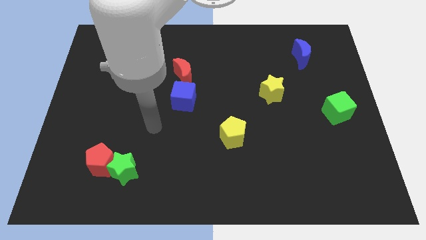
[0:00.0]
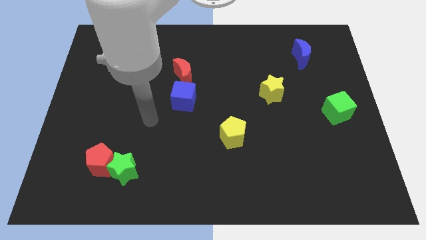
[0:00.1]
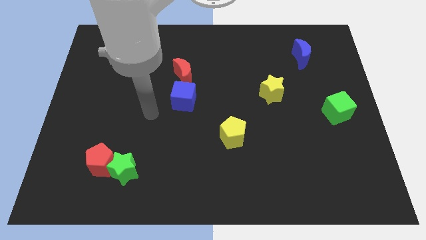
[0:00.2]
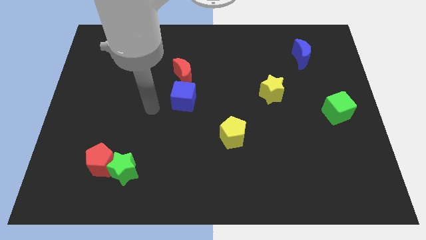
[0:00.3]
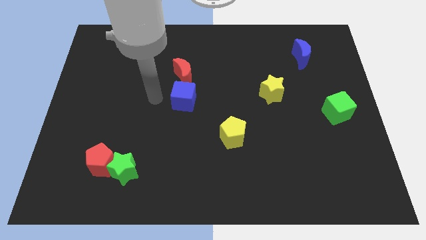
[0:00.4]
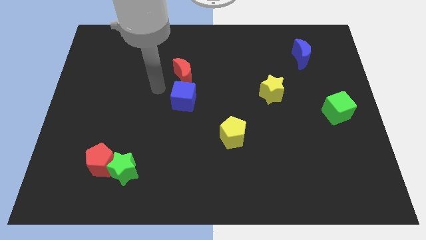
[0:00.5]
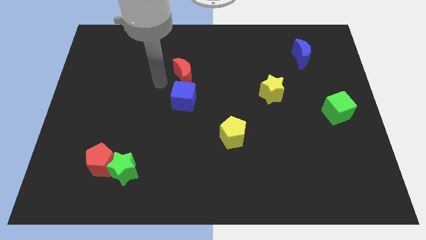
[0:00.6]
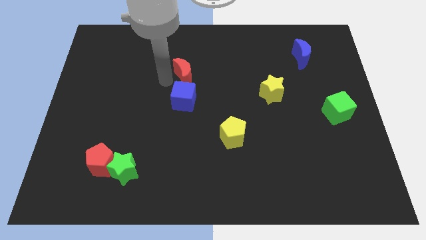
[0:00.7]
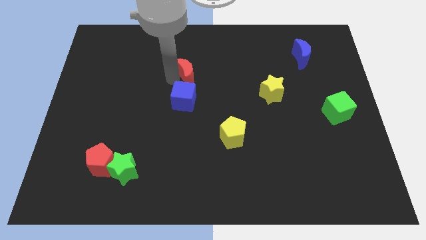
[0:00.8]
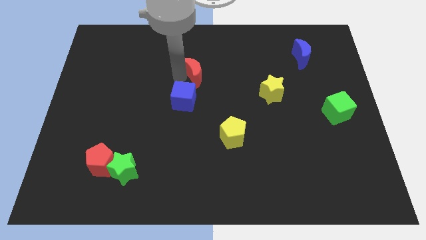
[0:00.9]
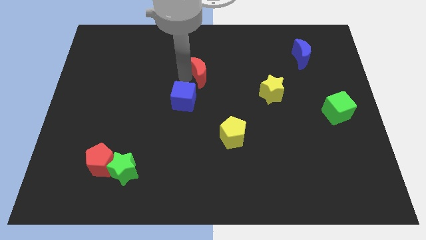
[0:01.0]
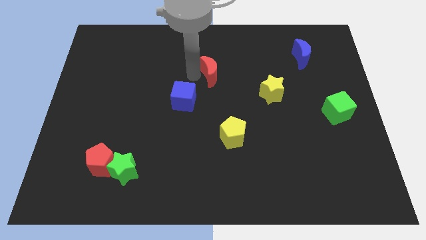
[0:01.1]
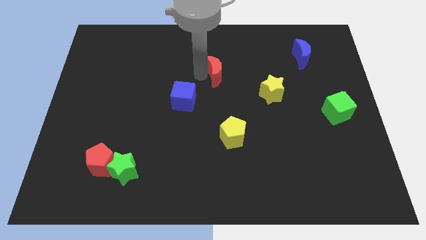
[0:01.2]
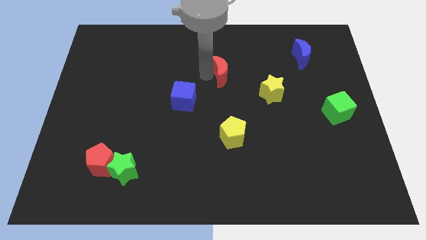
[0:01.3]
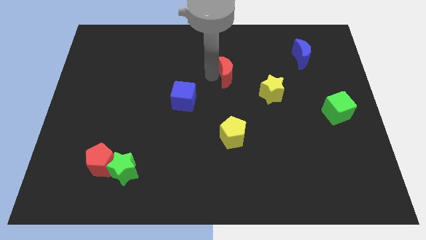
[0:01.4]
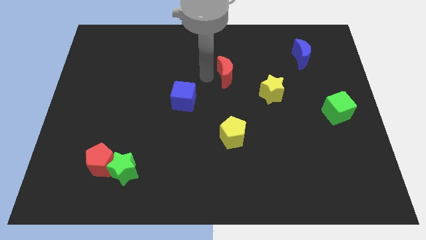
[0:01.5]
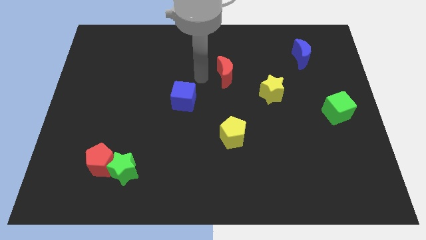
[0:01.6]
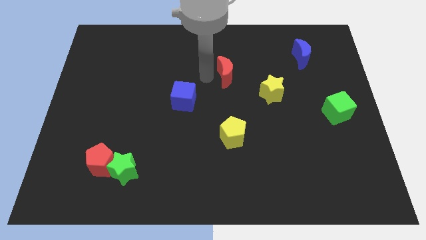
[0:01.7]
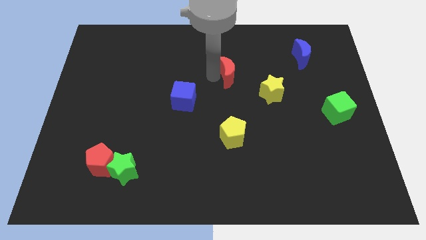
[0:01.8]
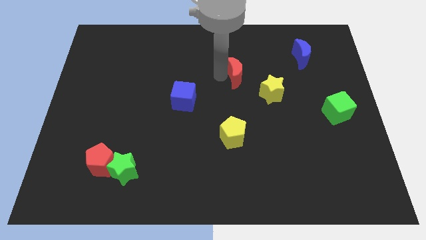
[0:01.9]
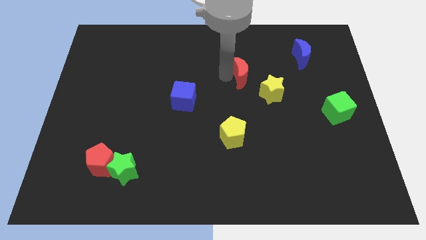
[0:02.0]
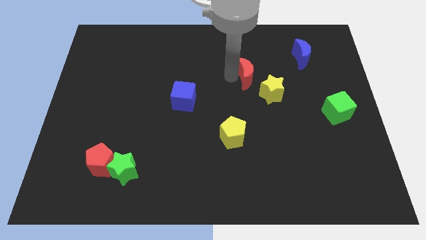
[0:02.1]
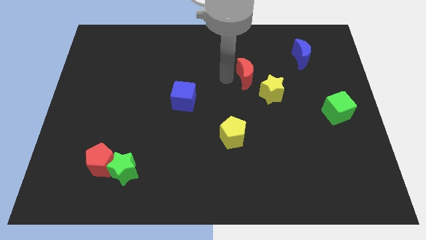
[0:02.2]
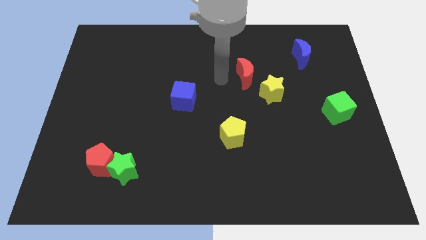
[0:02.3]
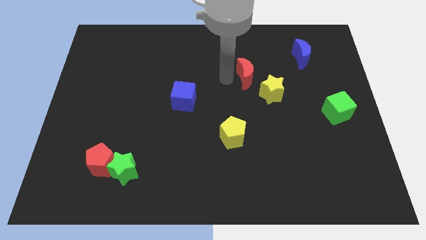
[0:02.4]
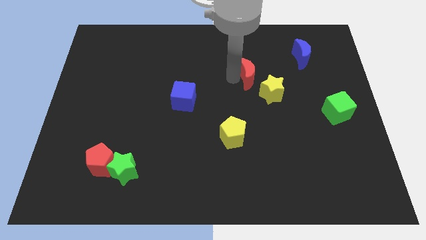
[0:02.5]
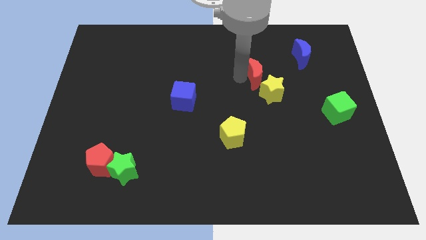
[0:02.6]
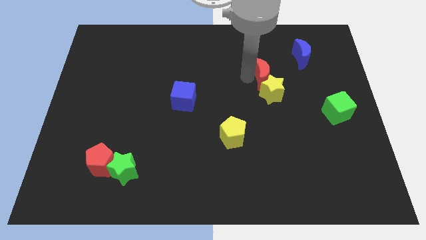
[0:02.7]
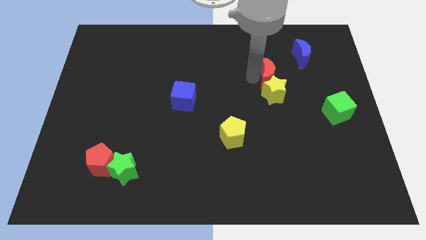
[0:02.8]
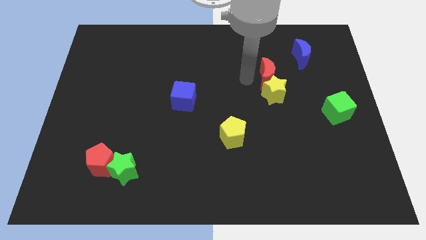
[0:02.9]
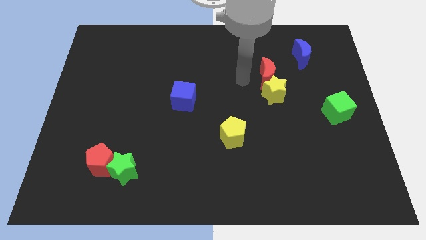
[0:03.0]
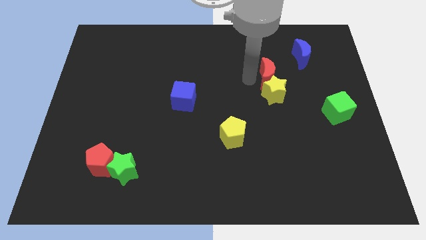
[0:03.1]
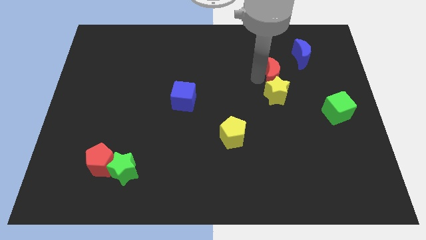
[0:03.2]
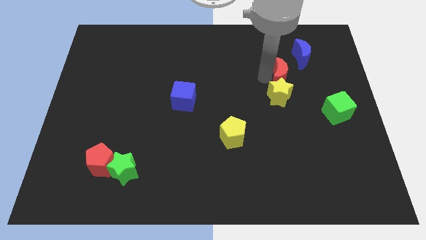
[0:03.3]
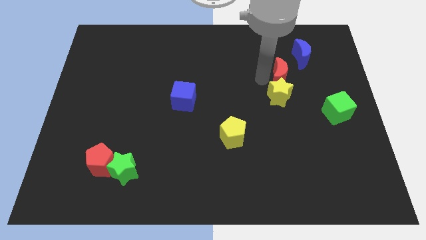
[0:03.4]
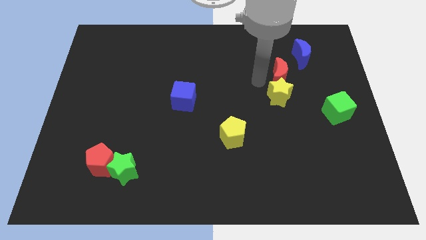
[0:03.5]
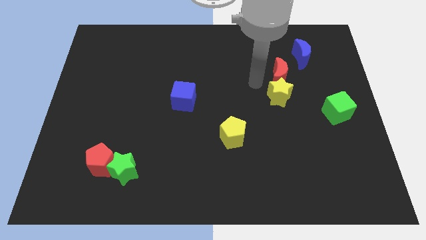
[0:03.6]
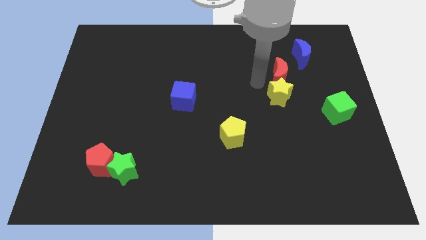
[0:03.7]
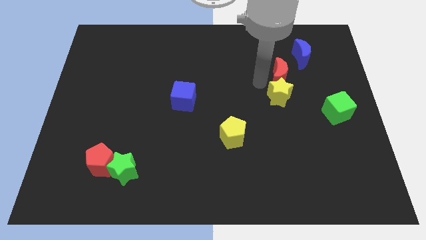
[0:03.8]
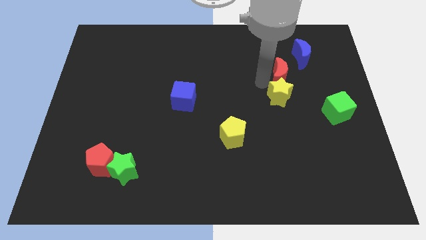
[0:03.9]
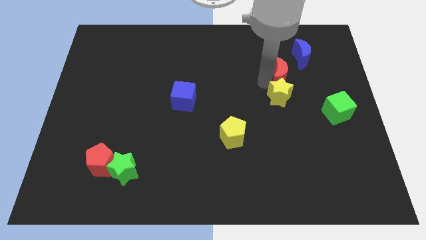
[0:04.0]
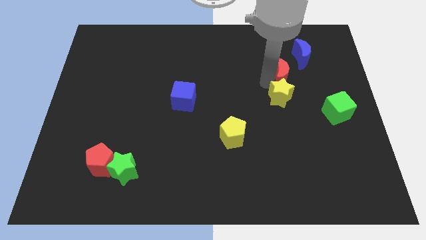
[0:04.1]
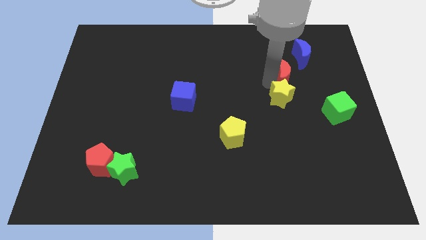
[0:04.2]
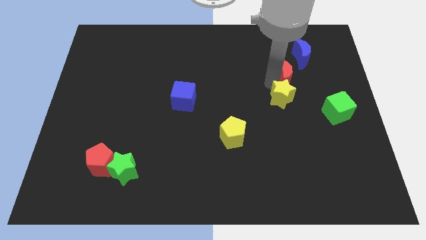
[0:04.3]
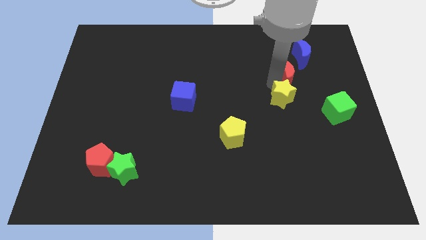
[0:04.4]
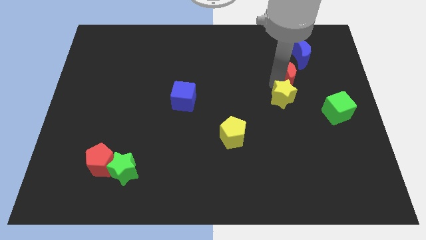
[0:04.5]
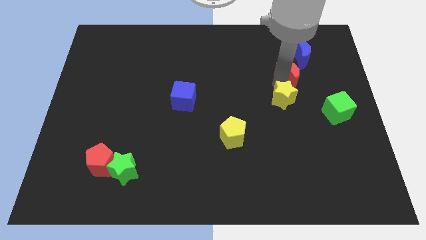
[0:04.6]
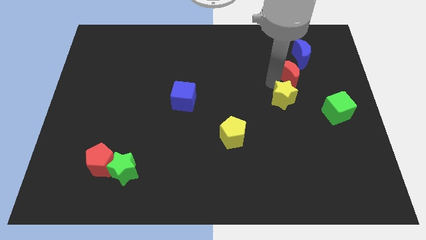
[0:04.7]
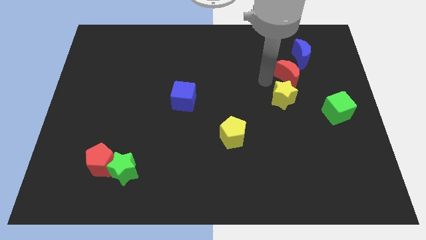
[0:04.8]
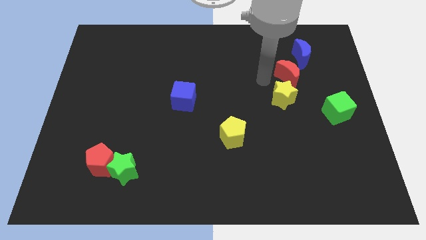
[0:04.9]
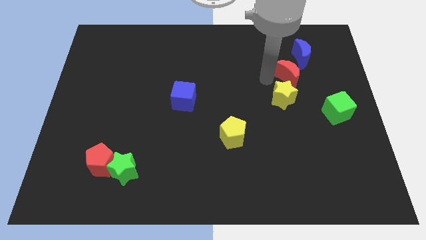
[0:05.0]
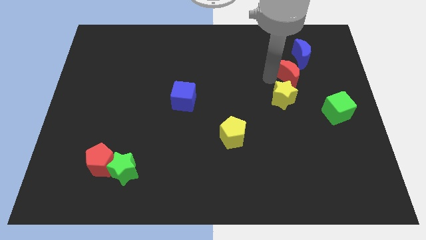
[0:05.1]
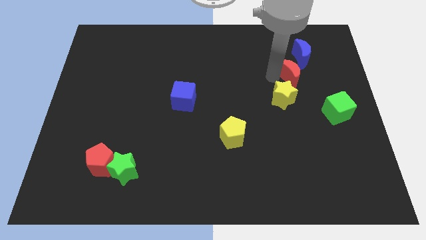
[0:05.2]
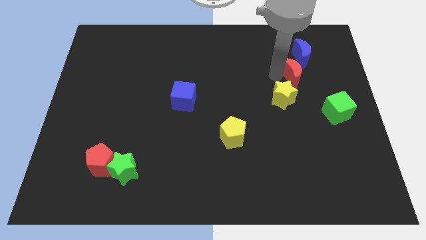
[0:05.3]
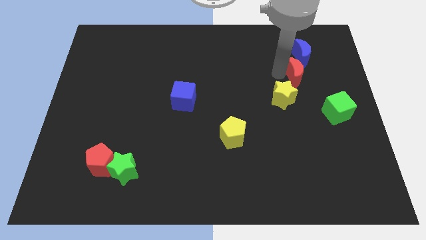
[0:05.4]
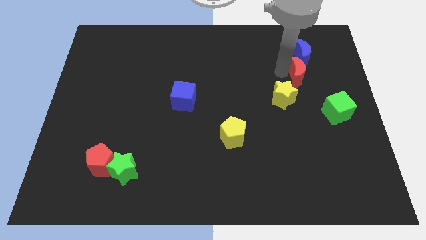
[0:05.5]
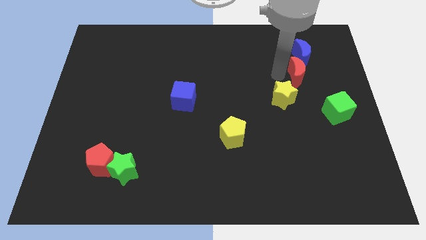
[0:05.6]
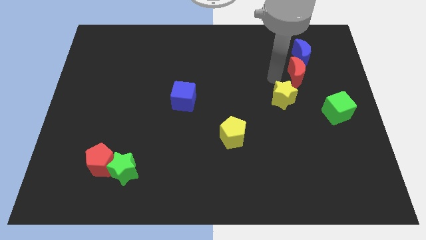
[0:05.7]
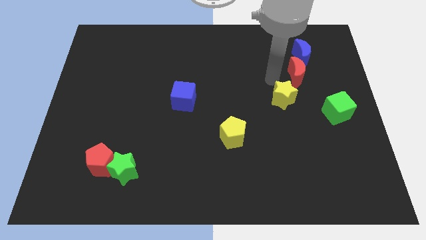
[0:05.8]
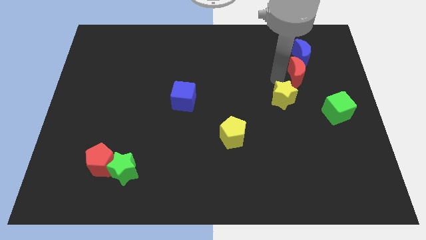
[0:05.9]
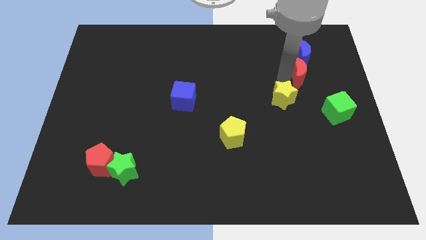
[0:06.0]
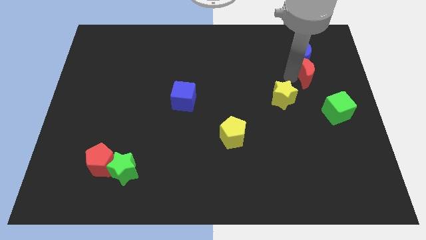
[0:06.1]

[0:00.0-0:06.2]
put the red moon diagonally down and to the right of the blue moon
